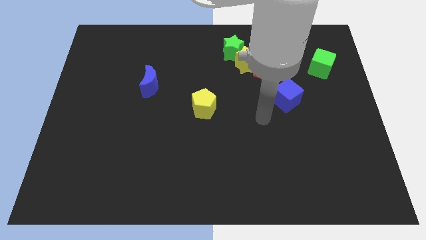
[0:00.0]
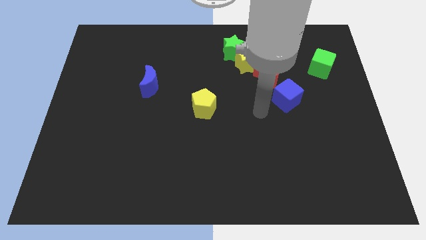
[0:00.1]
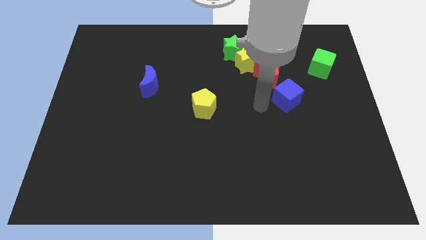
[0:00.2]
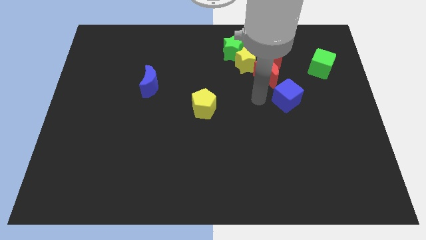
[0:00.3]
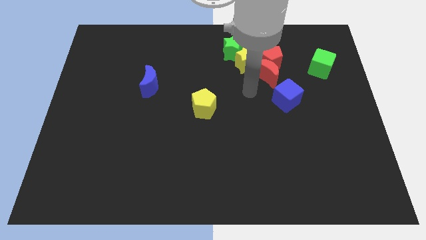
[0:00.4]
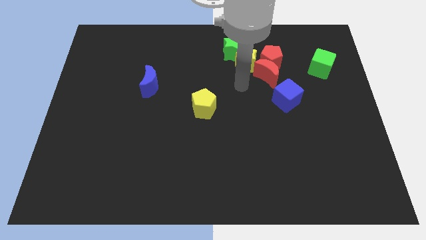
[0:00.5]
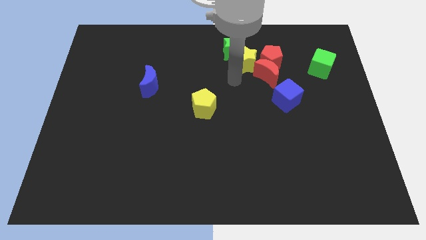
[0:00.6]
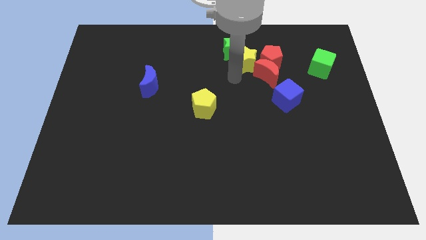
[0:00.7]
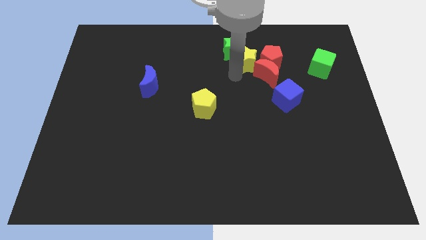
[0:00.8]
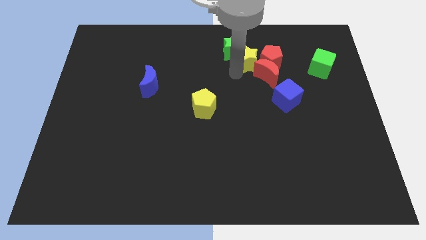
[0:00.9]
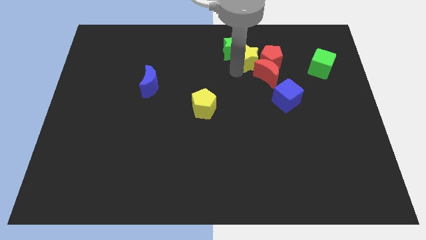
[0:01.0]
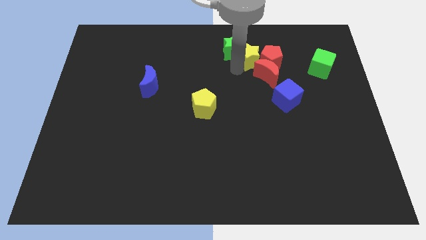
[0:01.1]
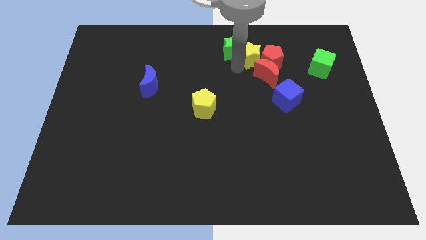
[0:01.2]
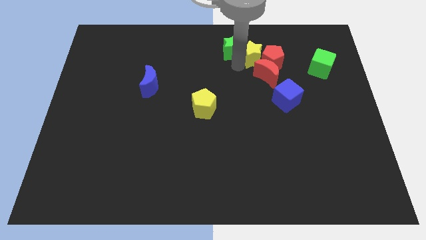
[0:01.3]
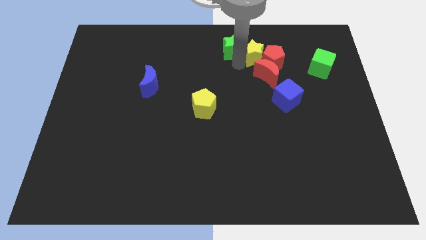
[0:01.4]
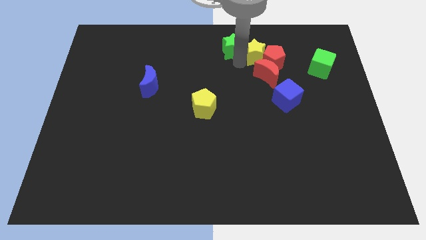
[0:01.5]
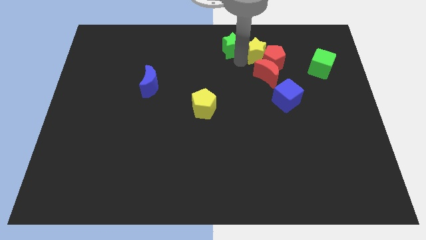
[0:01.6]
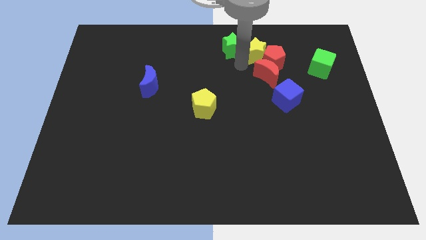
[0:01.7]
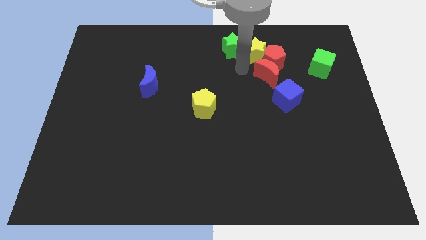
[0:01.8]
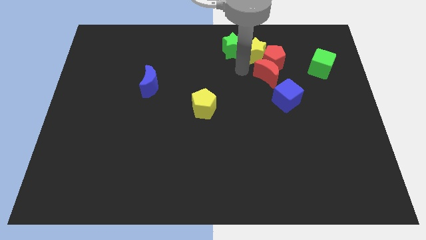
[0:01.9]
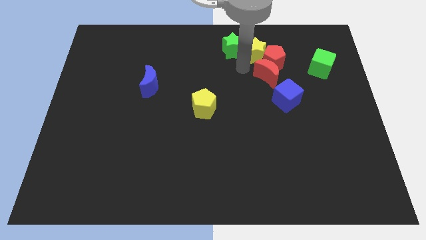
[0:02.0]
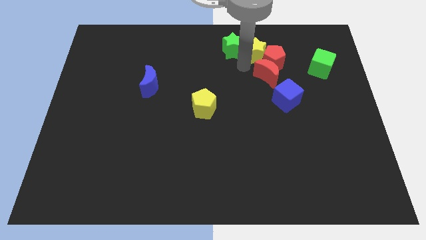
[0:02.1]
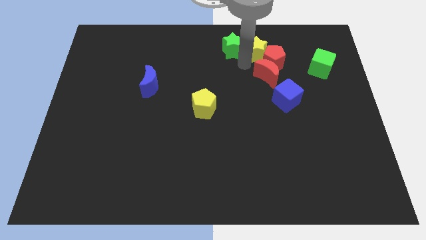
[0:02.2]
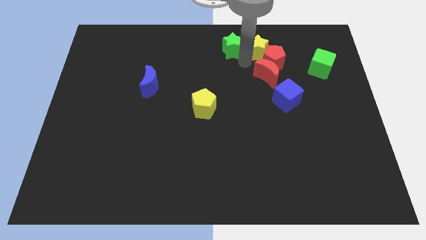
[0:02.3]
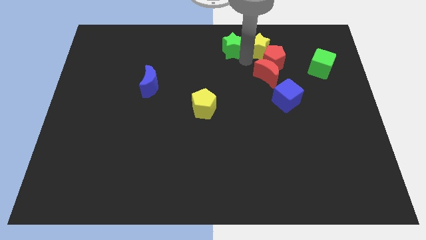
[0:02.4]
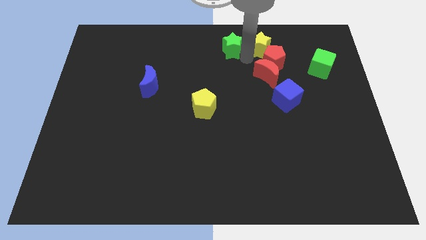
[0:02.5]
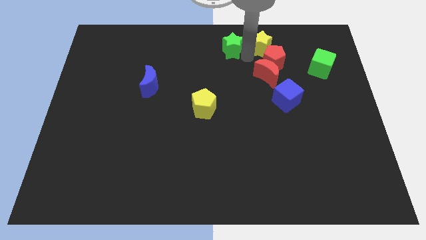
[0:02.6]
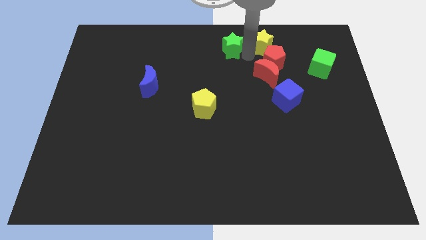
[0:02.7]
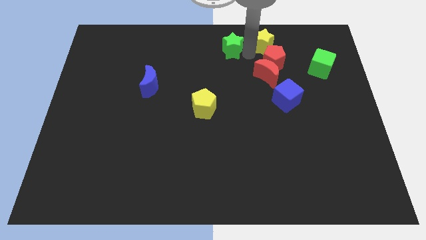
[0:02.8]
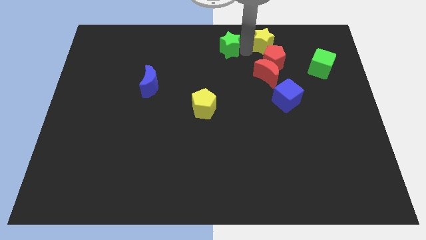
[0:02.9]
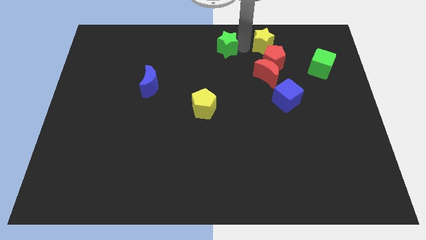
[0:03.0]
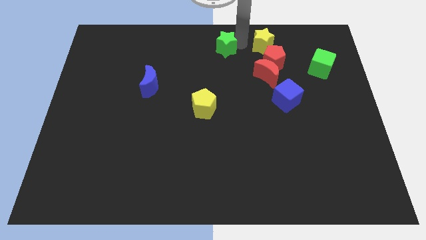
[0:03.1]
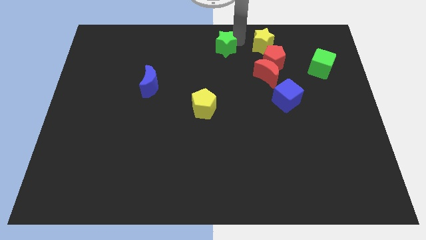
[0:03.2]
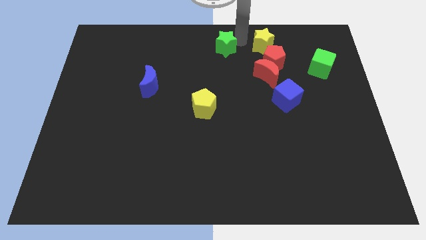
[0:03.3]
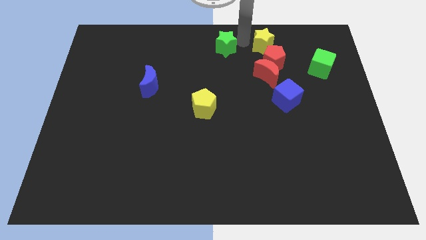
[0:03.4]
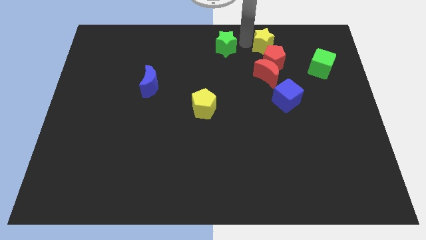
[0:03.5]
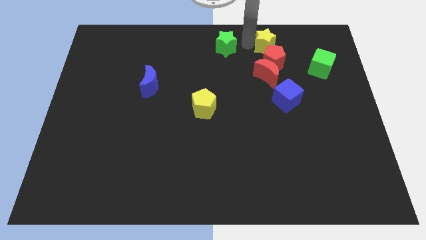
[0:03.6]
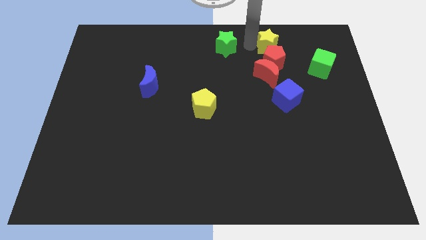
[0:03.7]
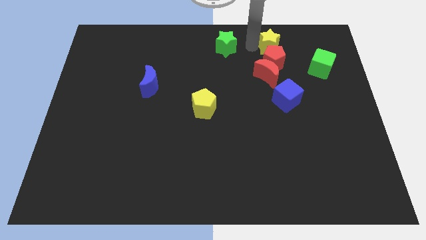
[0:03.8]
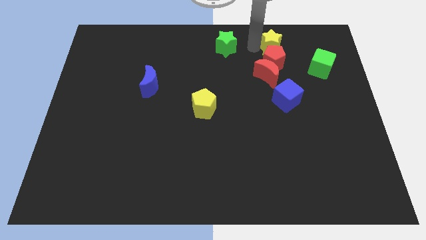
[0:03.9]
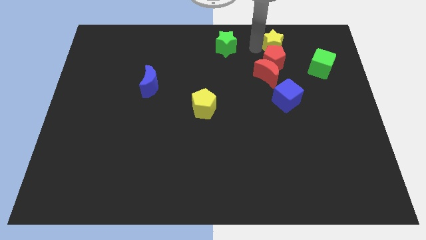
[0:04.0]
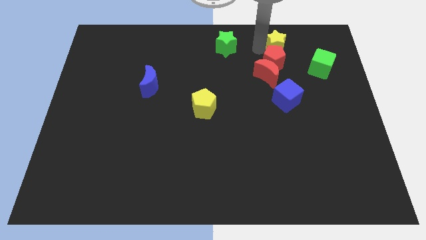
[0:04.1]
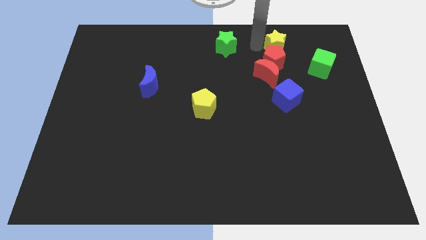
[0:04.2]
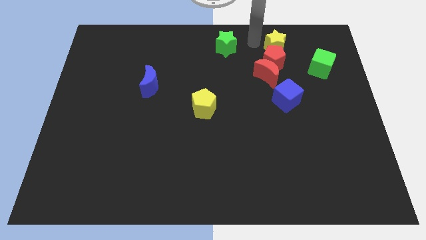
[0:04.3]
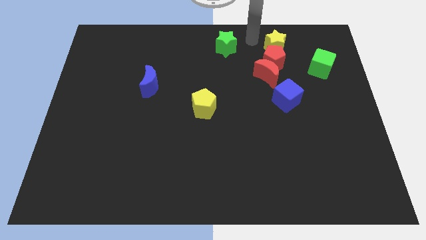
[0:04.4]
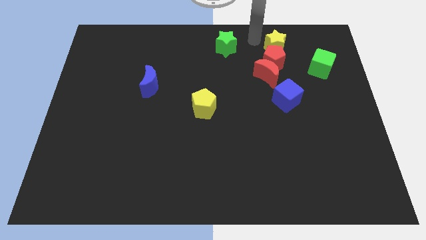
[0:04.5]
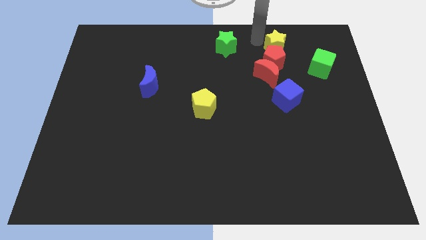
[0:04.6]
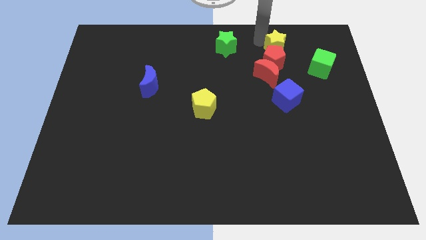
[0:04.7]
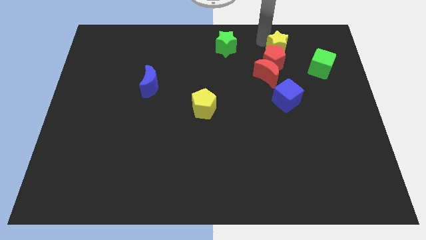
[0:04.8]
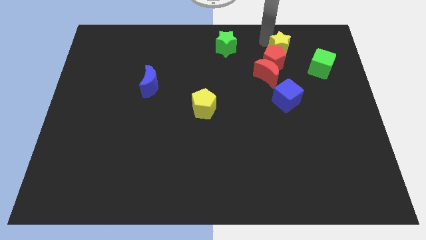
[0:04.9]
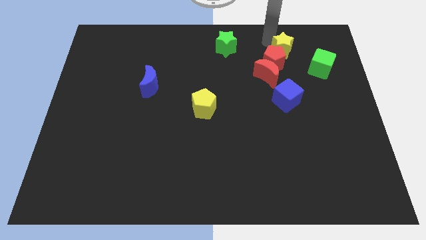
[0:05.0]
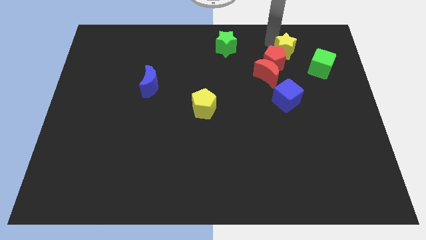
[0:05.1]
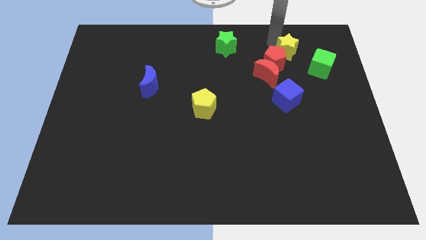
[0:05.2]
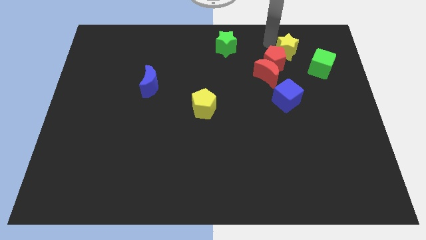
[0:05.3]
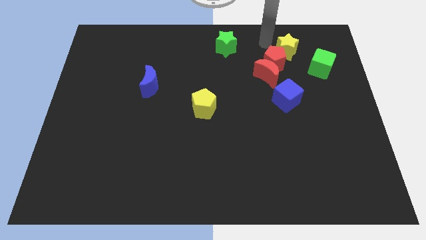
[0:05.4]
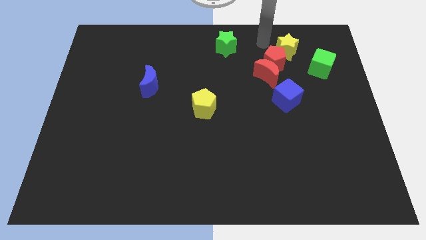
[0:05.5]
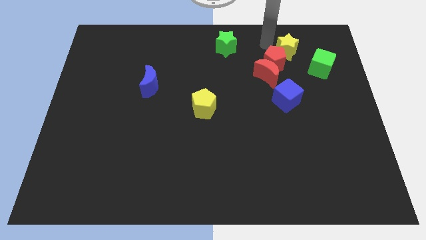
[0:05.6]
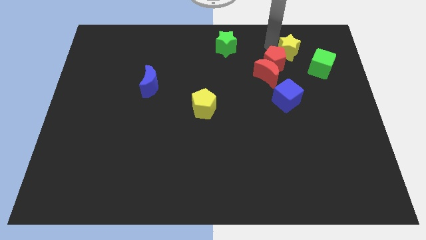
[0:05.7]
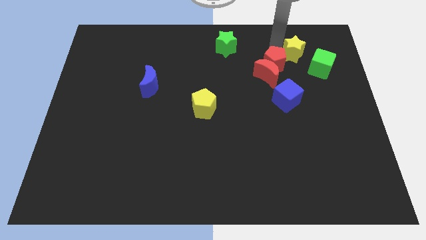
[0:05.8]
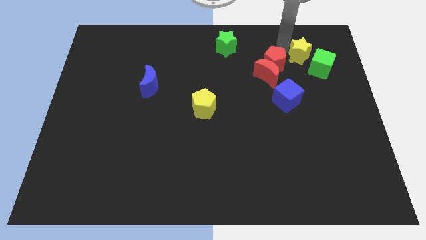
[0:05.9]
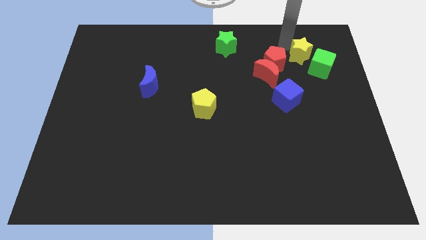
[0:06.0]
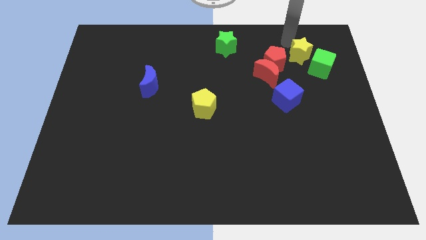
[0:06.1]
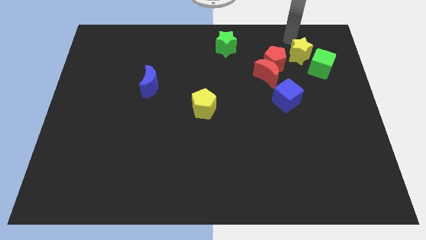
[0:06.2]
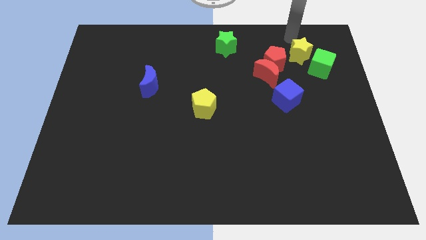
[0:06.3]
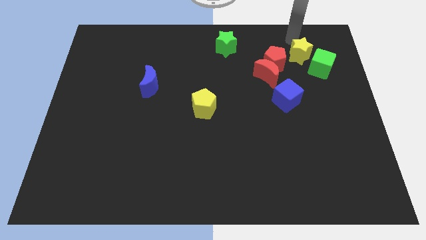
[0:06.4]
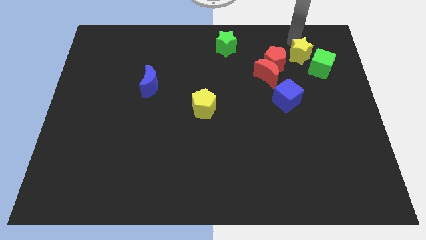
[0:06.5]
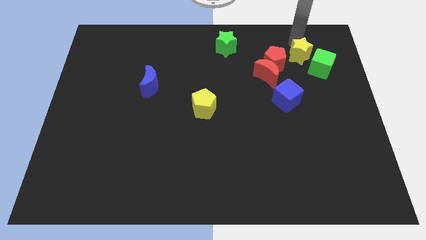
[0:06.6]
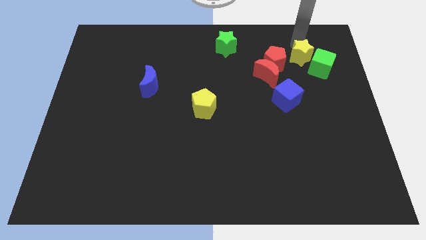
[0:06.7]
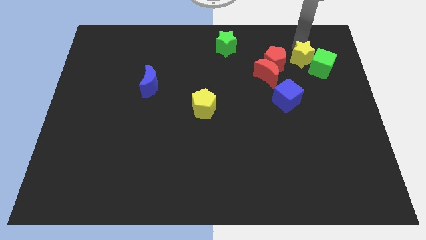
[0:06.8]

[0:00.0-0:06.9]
push the yellow star close to the green cube

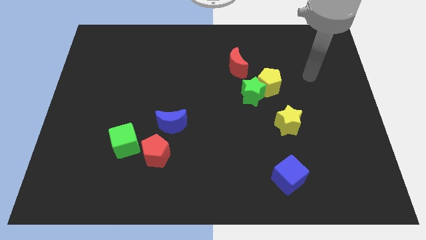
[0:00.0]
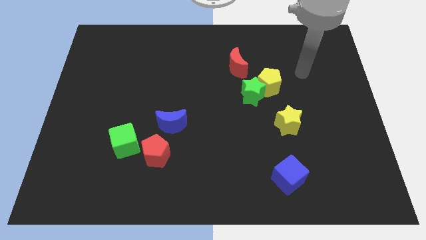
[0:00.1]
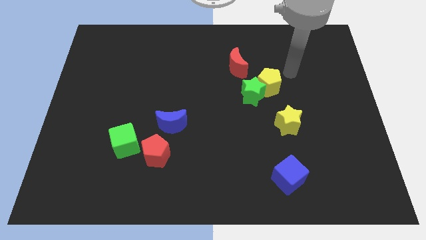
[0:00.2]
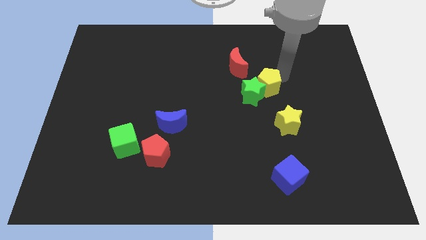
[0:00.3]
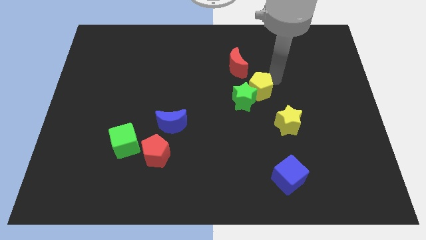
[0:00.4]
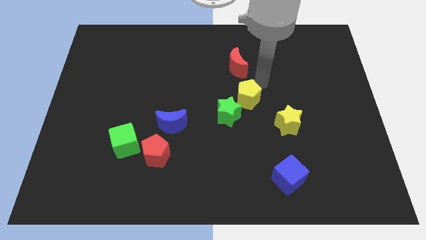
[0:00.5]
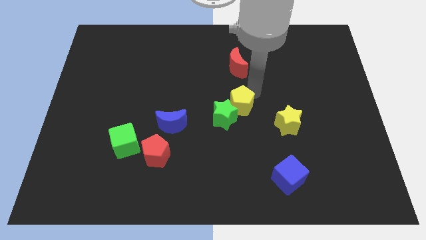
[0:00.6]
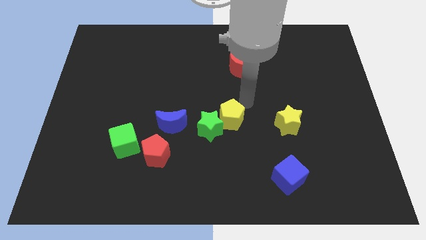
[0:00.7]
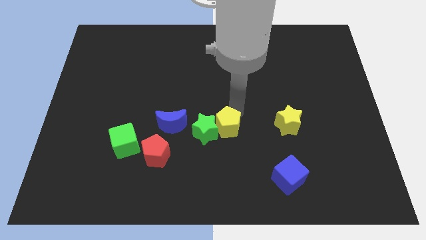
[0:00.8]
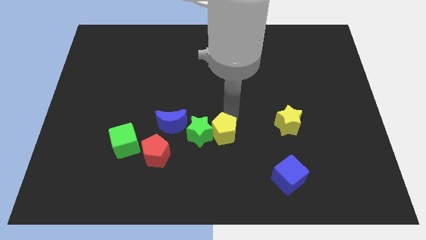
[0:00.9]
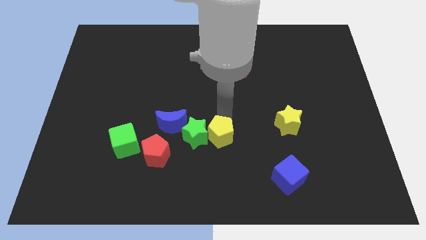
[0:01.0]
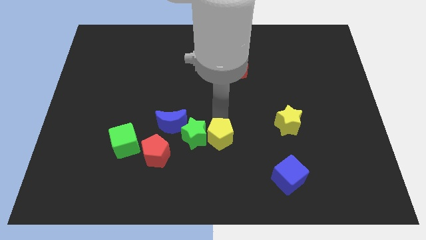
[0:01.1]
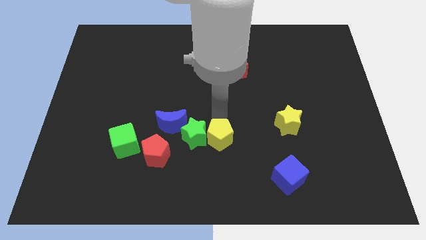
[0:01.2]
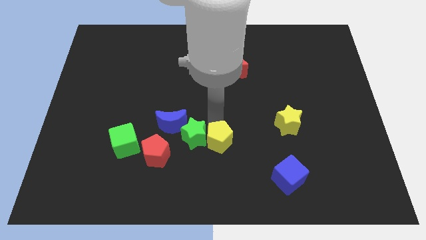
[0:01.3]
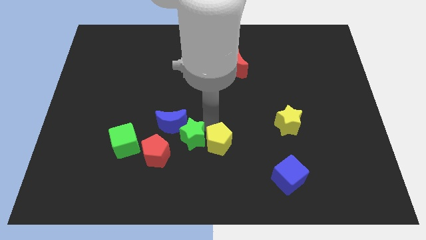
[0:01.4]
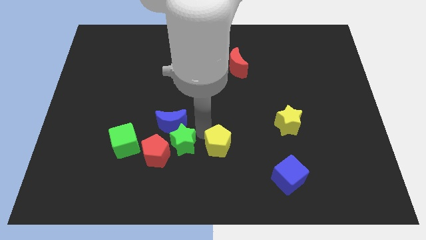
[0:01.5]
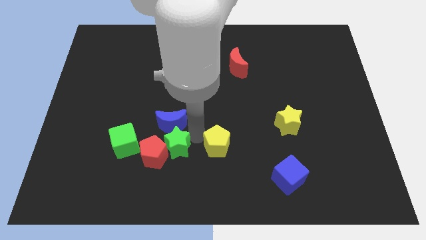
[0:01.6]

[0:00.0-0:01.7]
put the green star towards the red pentagon
